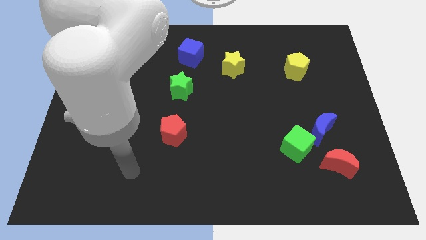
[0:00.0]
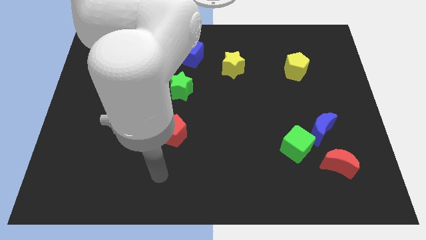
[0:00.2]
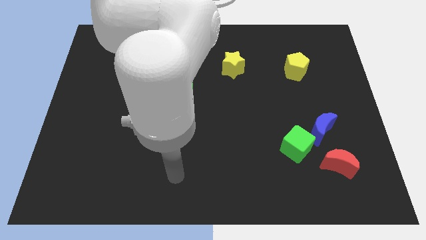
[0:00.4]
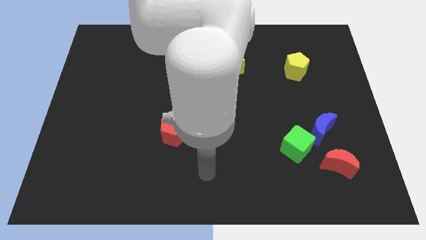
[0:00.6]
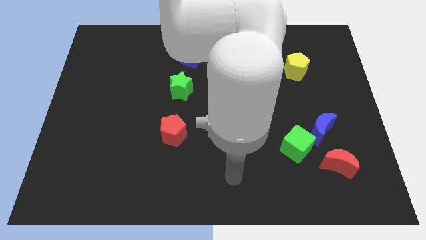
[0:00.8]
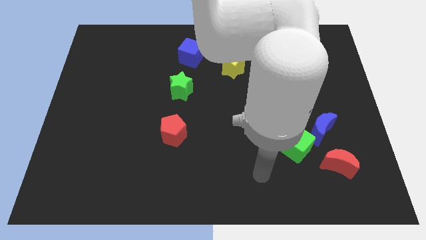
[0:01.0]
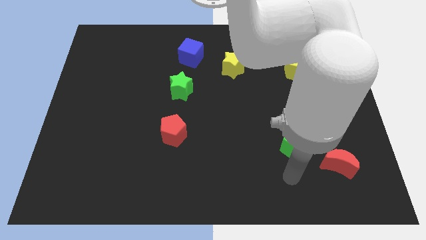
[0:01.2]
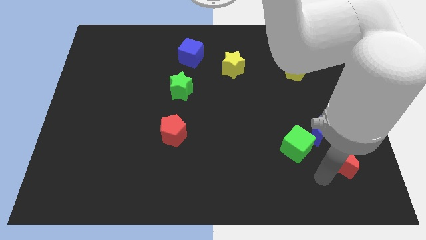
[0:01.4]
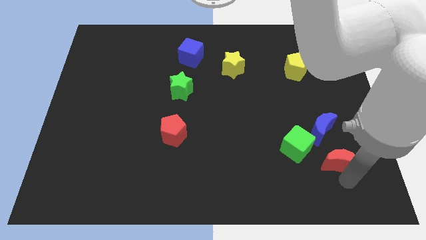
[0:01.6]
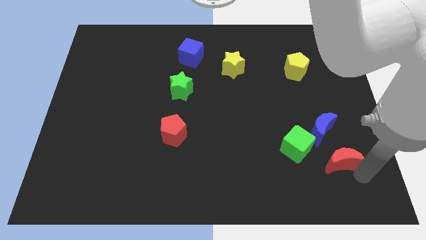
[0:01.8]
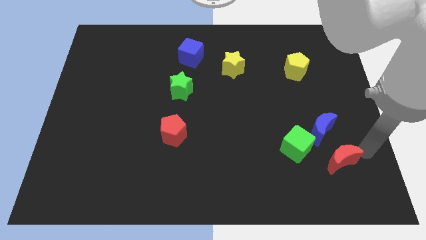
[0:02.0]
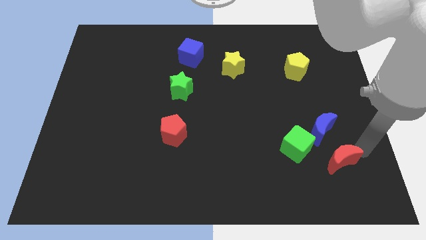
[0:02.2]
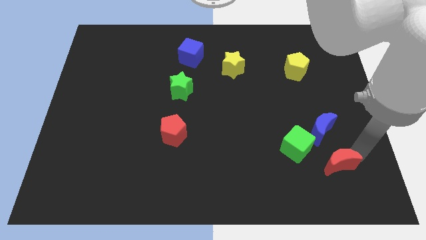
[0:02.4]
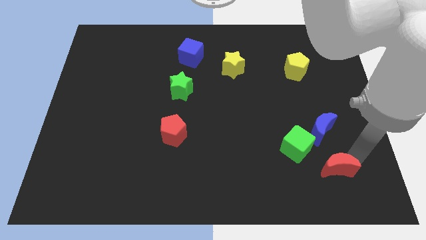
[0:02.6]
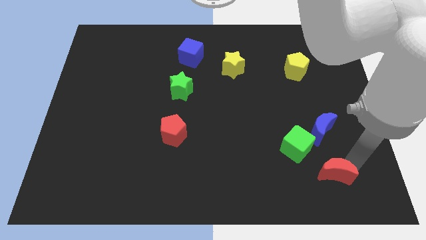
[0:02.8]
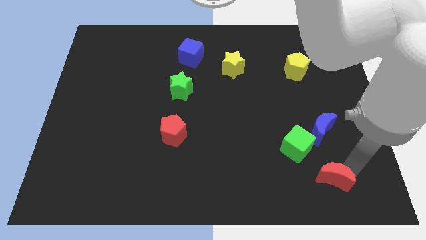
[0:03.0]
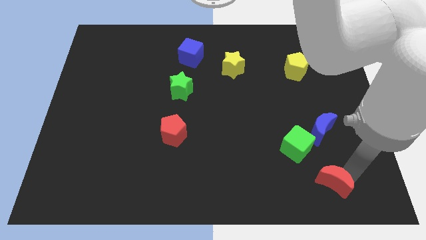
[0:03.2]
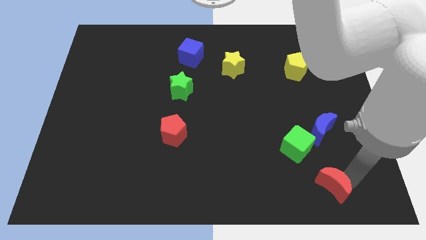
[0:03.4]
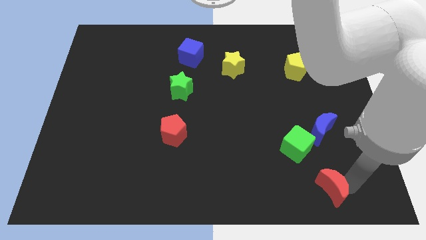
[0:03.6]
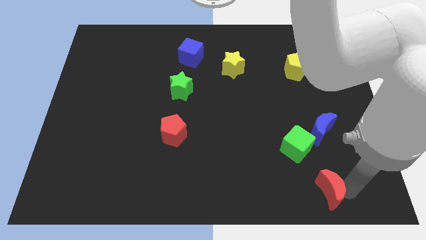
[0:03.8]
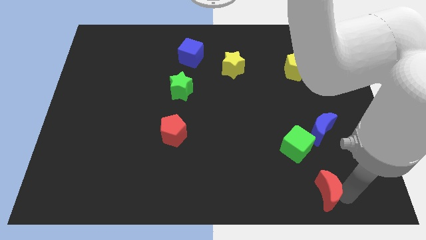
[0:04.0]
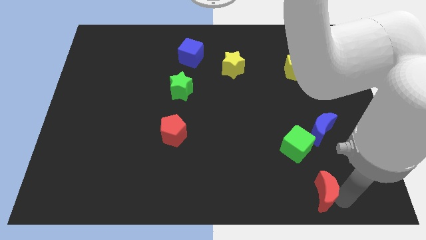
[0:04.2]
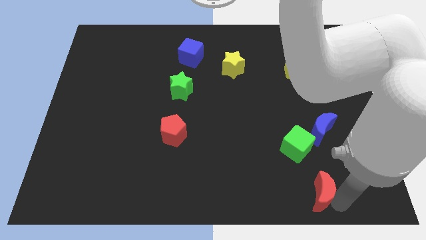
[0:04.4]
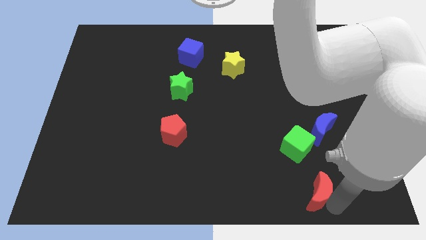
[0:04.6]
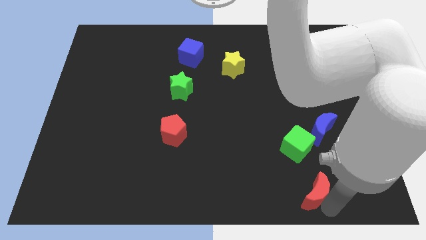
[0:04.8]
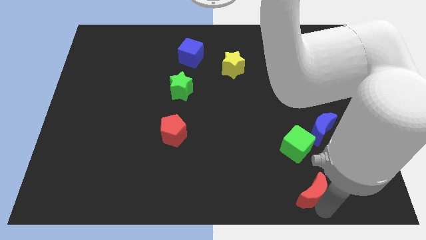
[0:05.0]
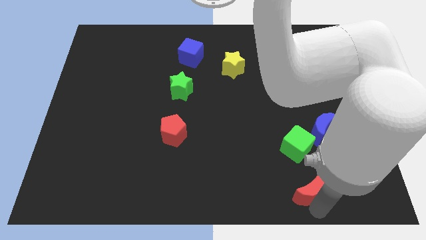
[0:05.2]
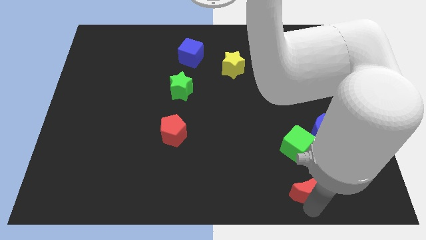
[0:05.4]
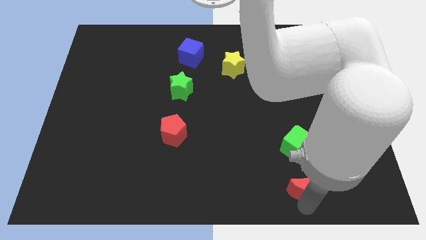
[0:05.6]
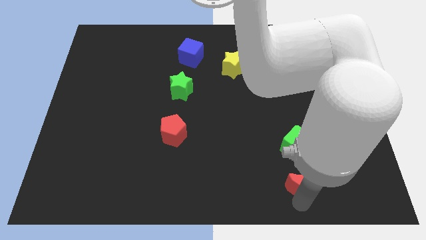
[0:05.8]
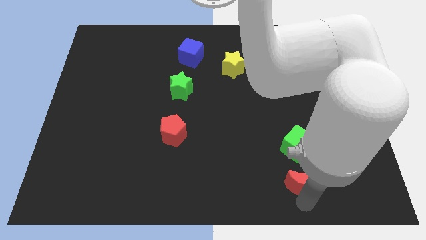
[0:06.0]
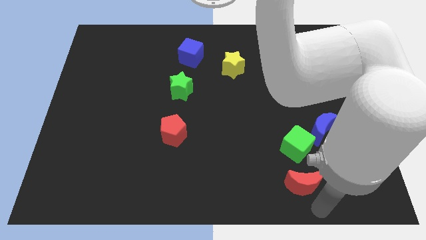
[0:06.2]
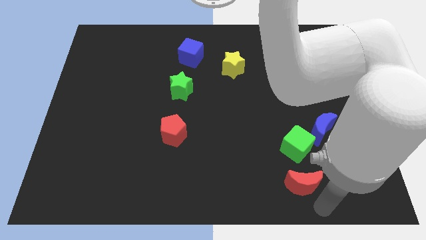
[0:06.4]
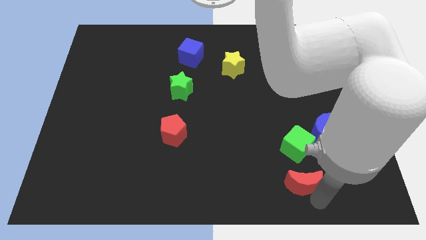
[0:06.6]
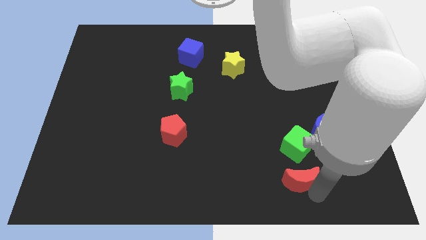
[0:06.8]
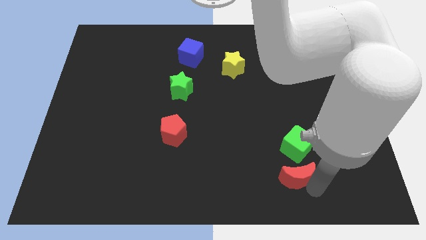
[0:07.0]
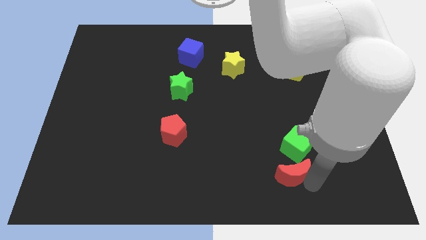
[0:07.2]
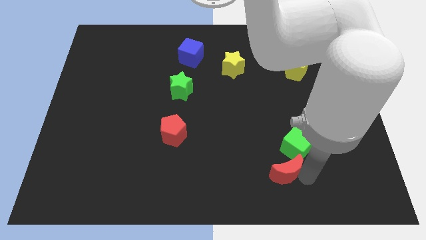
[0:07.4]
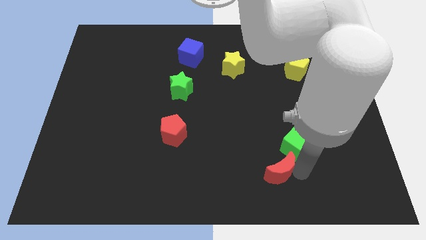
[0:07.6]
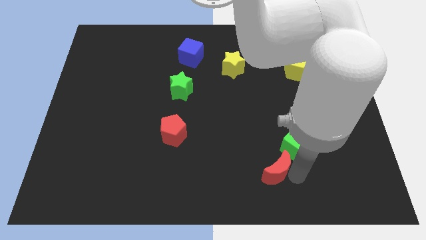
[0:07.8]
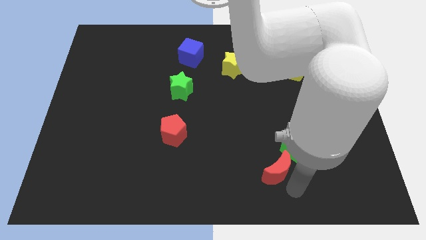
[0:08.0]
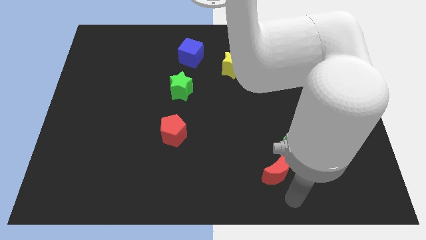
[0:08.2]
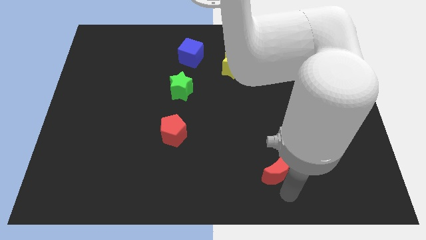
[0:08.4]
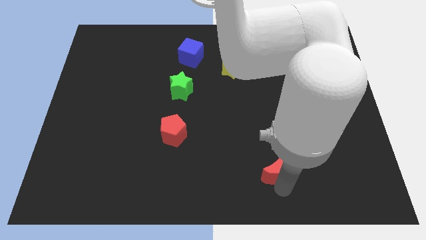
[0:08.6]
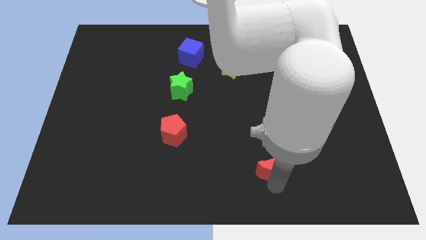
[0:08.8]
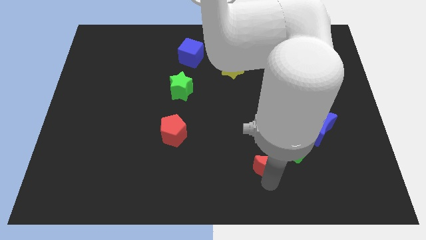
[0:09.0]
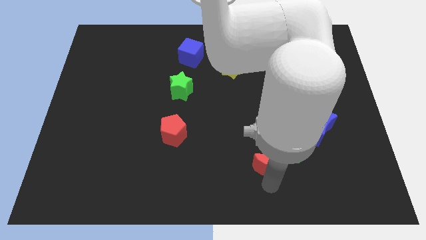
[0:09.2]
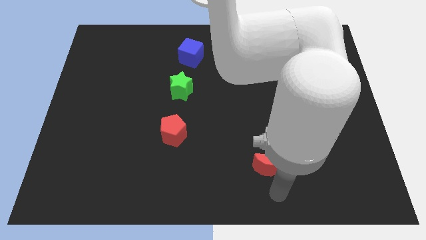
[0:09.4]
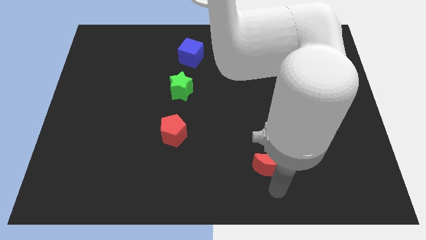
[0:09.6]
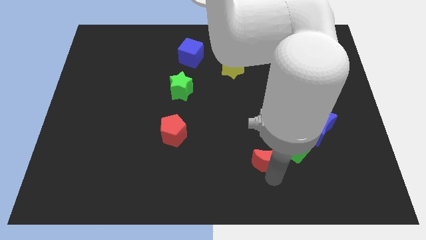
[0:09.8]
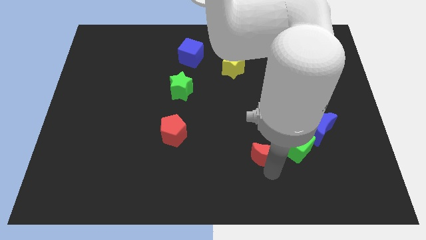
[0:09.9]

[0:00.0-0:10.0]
slightly move the red moon upwards and left

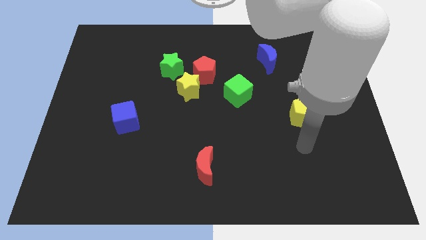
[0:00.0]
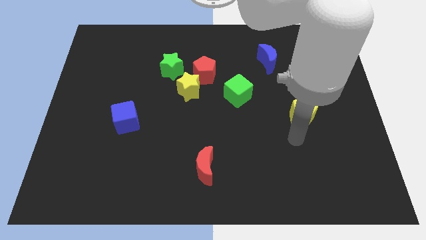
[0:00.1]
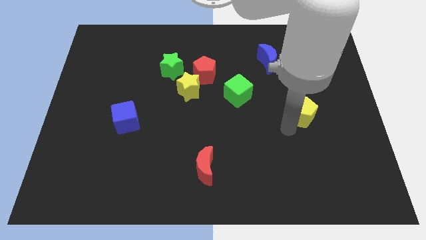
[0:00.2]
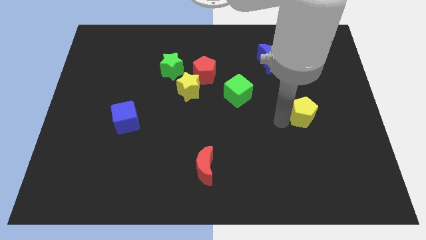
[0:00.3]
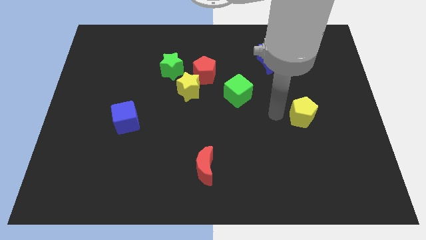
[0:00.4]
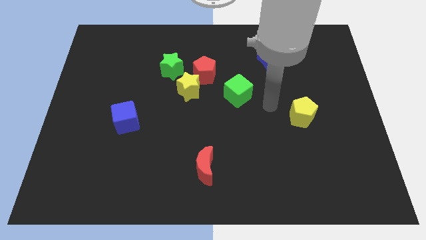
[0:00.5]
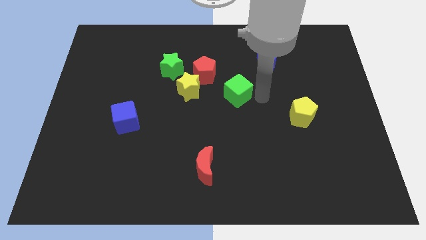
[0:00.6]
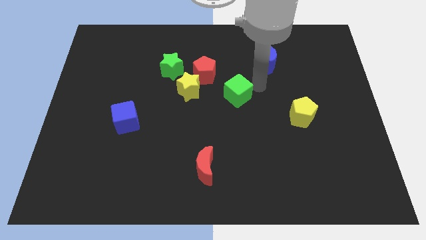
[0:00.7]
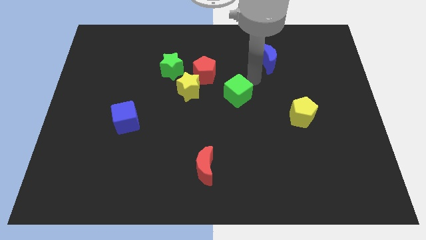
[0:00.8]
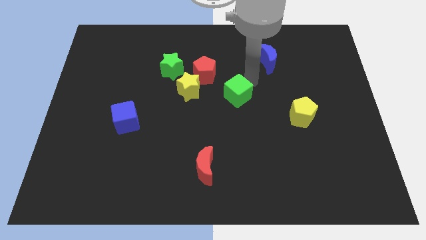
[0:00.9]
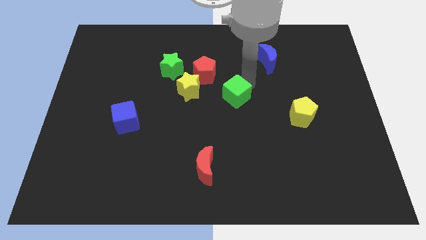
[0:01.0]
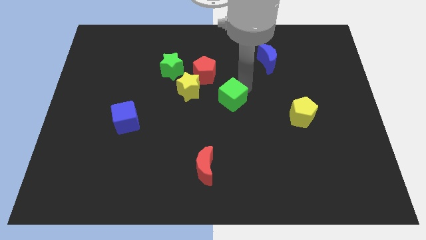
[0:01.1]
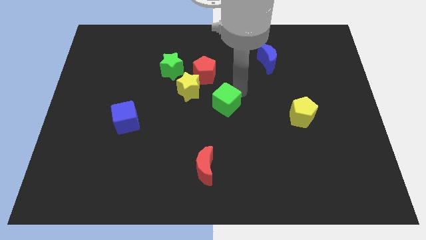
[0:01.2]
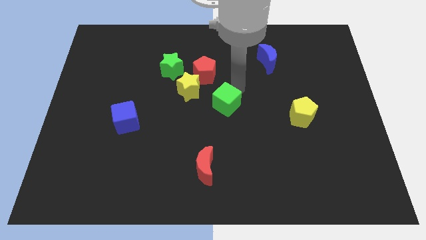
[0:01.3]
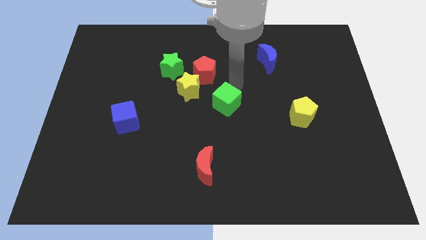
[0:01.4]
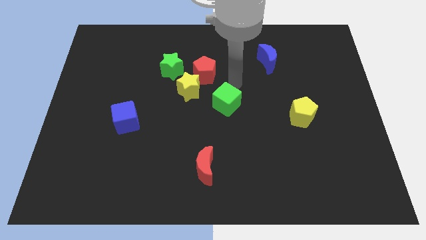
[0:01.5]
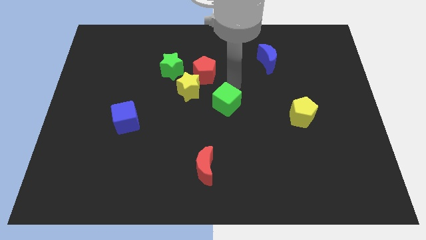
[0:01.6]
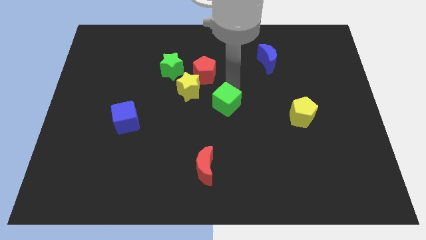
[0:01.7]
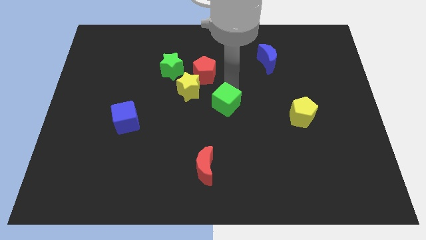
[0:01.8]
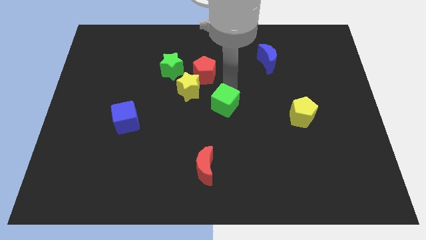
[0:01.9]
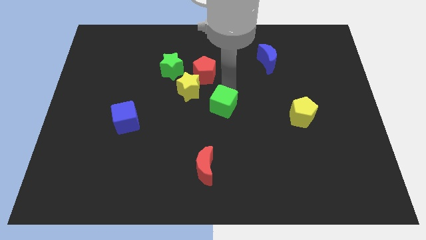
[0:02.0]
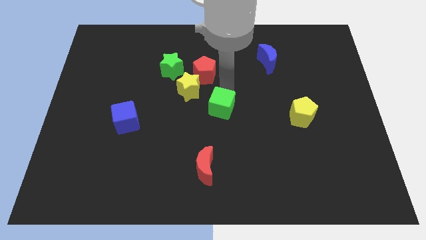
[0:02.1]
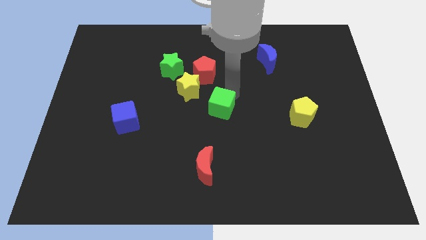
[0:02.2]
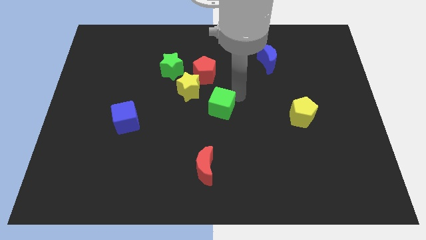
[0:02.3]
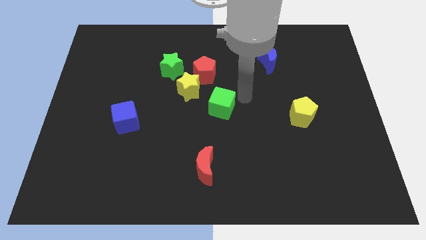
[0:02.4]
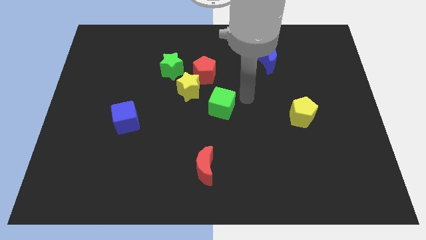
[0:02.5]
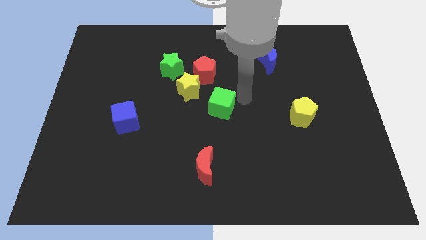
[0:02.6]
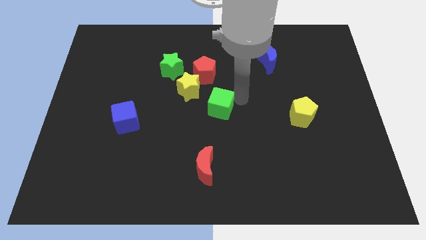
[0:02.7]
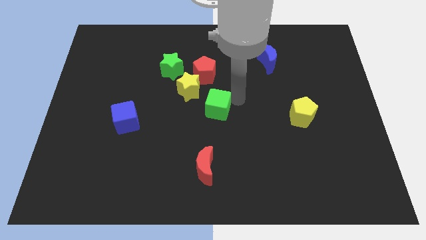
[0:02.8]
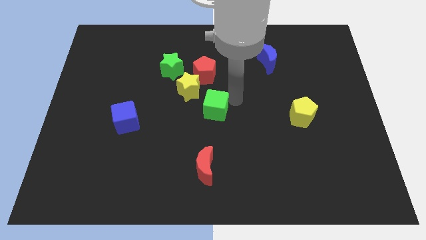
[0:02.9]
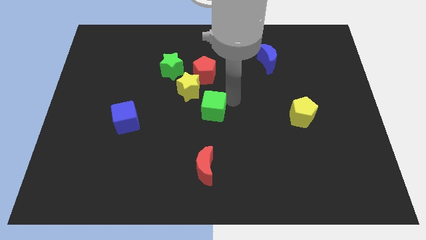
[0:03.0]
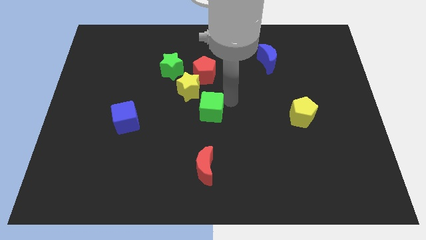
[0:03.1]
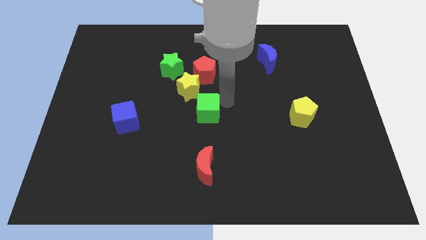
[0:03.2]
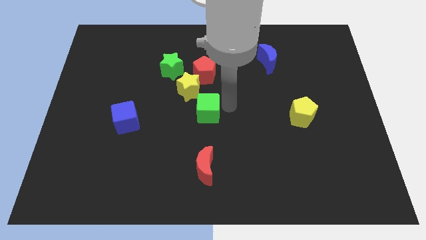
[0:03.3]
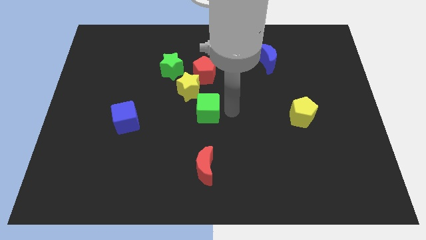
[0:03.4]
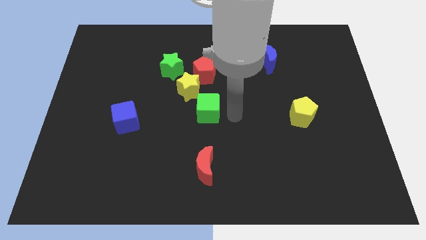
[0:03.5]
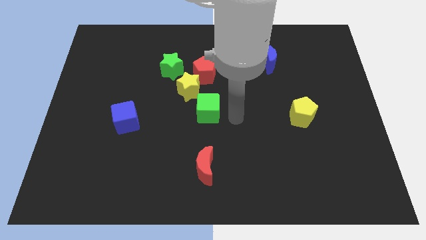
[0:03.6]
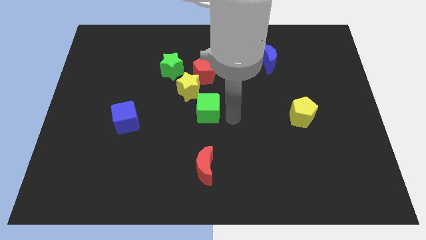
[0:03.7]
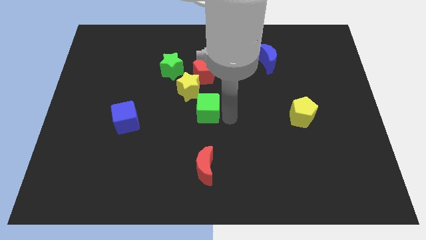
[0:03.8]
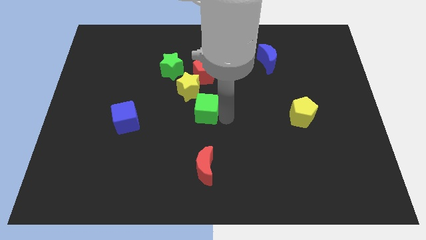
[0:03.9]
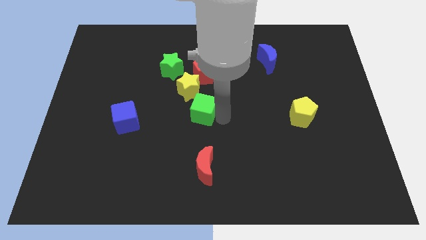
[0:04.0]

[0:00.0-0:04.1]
slightly slide the green cube left
